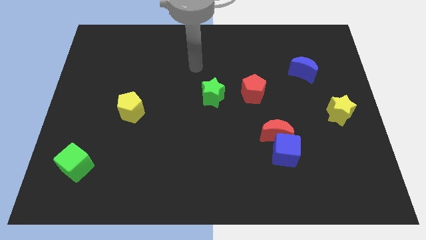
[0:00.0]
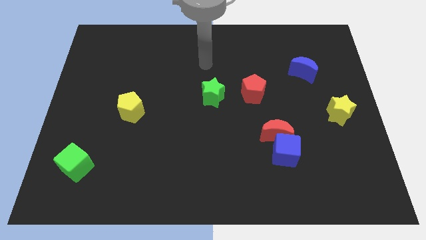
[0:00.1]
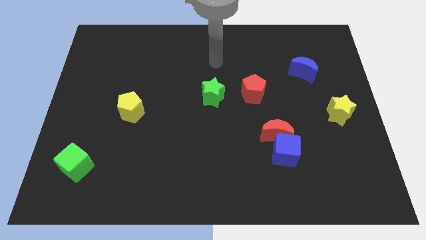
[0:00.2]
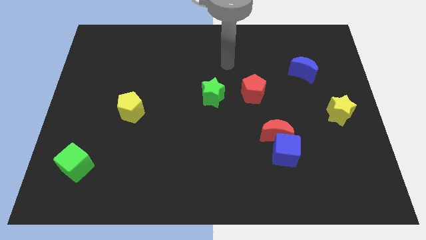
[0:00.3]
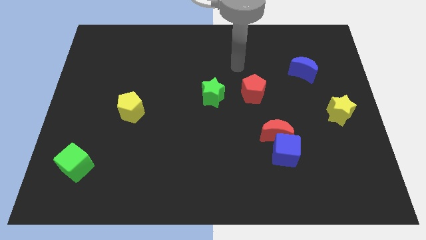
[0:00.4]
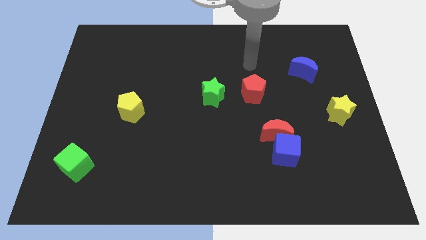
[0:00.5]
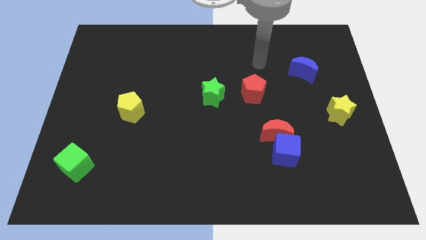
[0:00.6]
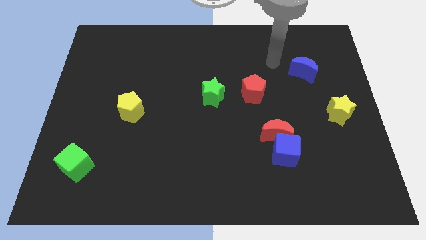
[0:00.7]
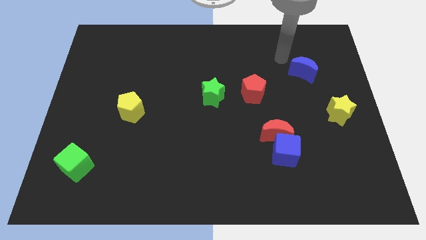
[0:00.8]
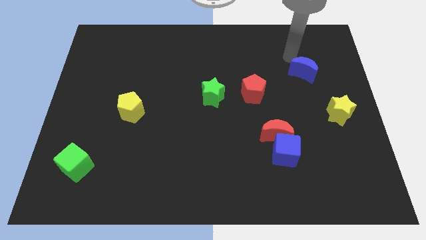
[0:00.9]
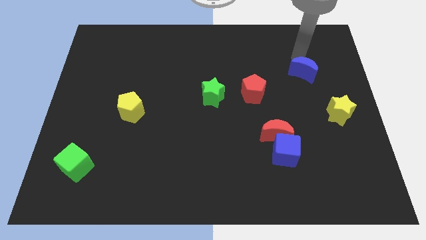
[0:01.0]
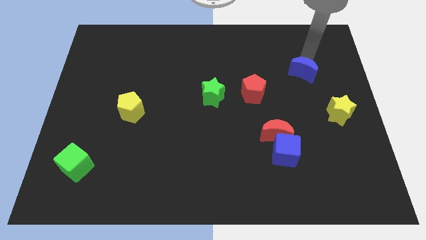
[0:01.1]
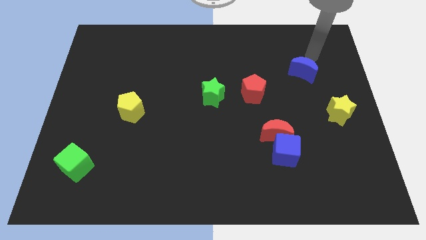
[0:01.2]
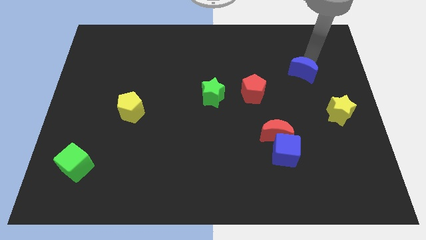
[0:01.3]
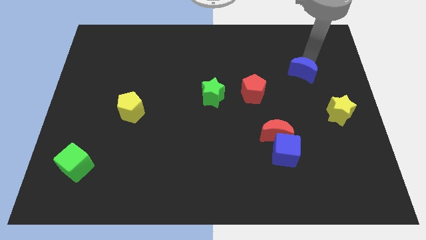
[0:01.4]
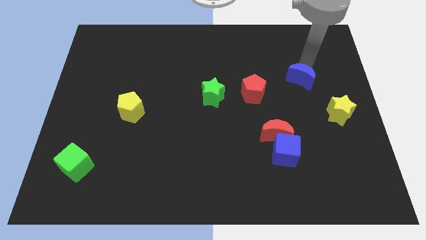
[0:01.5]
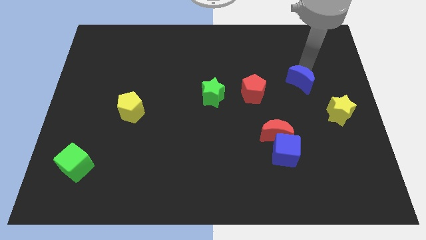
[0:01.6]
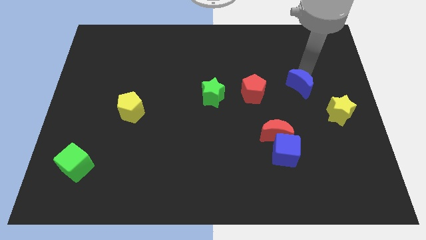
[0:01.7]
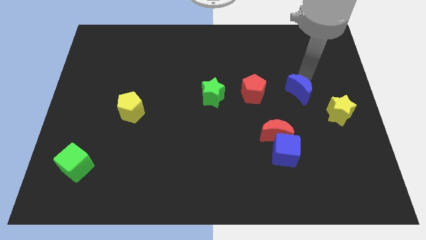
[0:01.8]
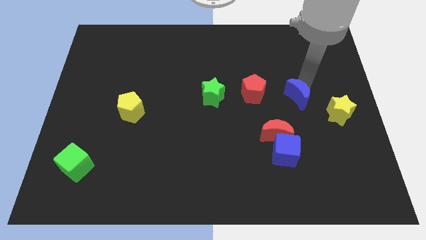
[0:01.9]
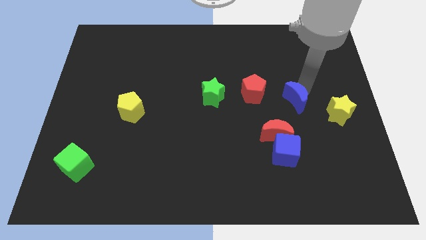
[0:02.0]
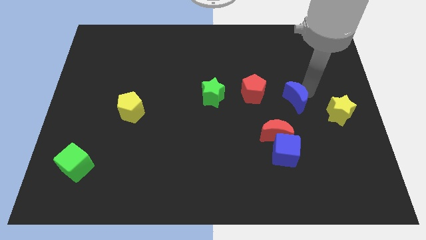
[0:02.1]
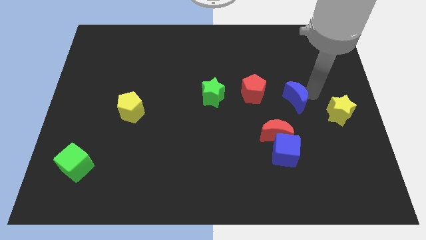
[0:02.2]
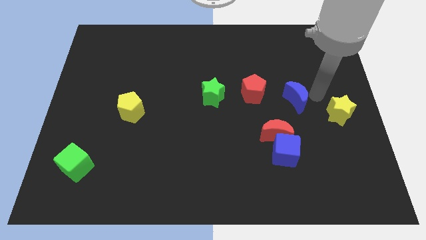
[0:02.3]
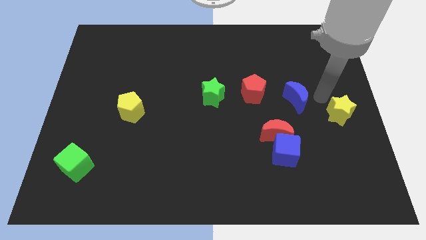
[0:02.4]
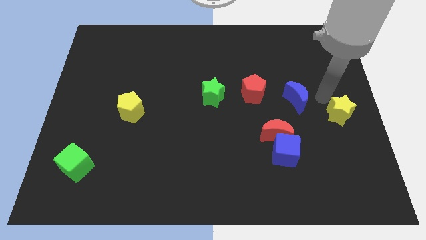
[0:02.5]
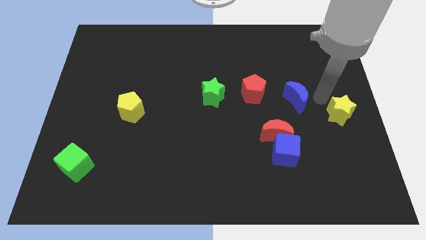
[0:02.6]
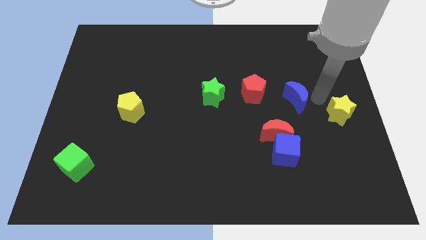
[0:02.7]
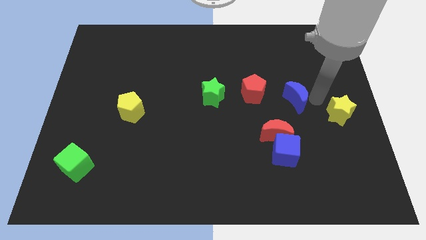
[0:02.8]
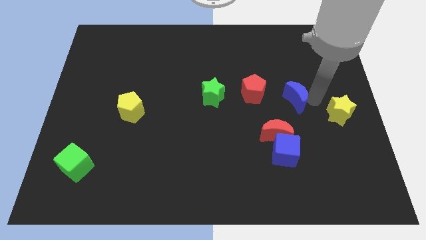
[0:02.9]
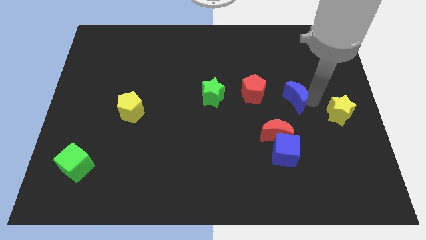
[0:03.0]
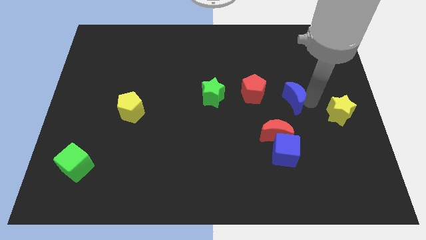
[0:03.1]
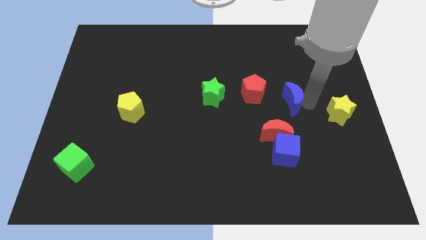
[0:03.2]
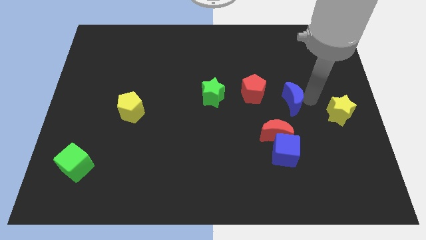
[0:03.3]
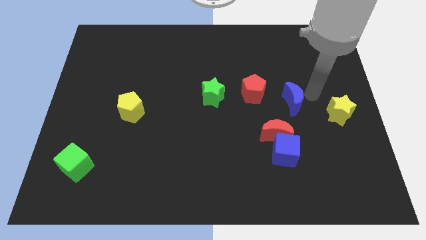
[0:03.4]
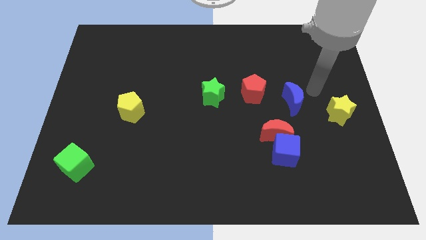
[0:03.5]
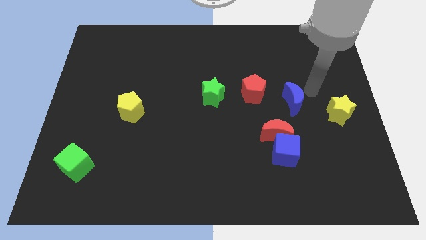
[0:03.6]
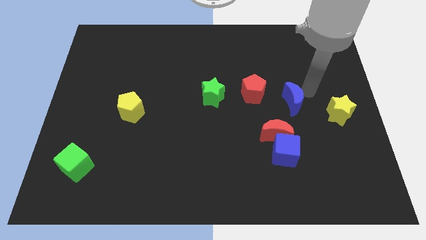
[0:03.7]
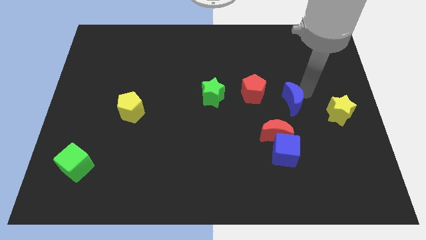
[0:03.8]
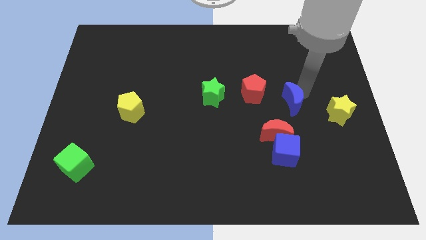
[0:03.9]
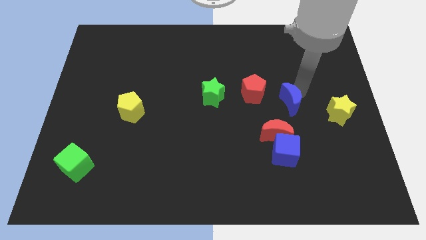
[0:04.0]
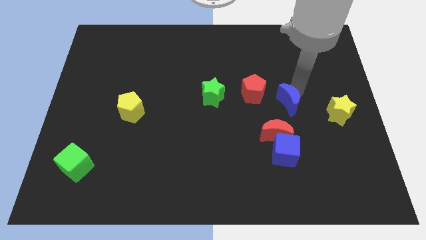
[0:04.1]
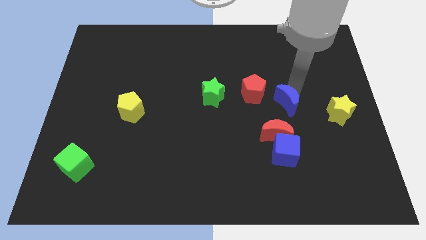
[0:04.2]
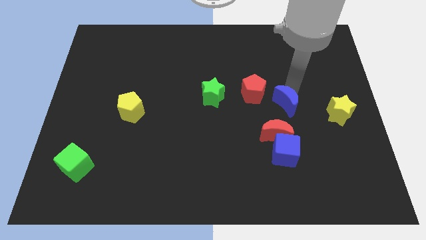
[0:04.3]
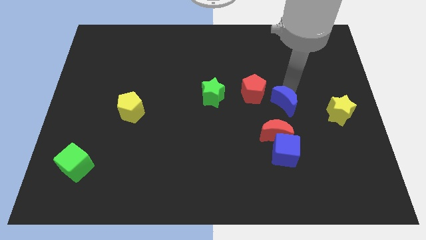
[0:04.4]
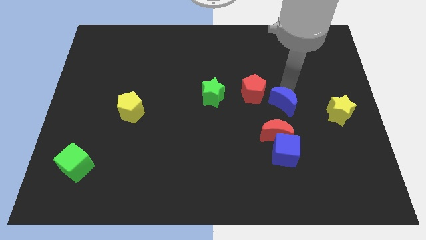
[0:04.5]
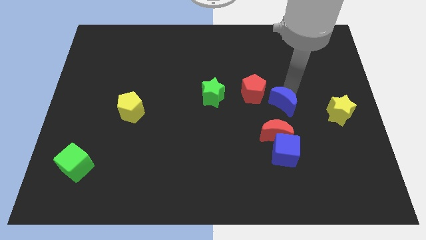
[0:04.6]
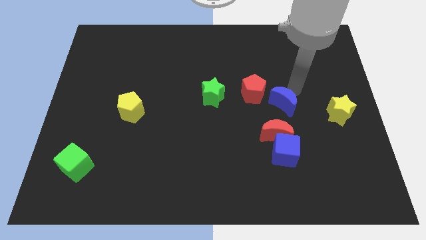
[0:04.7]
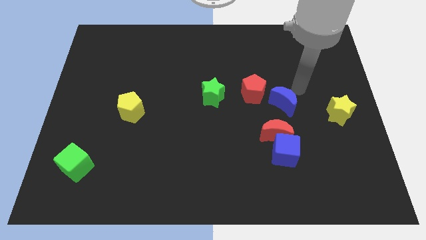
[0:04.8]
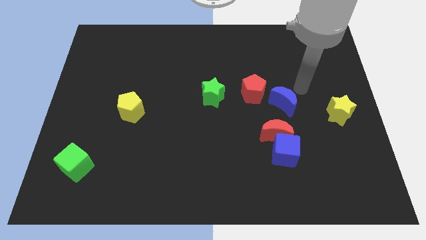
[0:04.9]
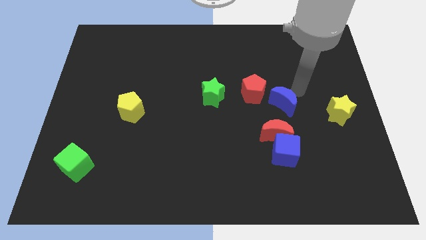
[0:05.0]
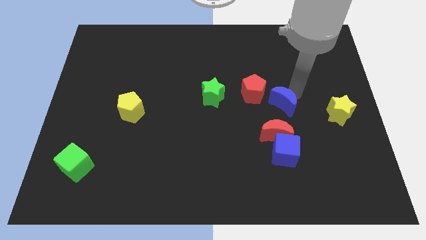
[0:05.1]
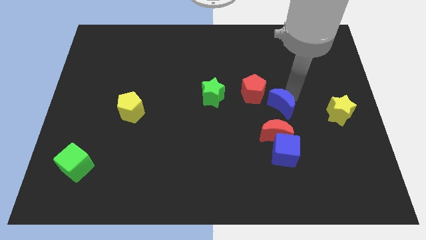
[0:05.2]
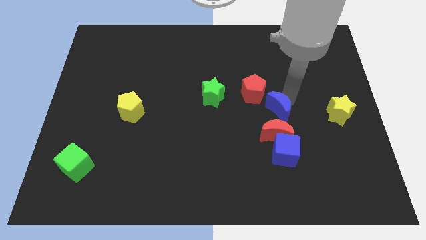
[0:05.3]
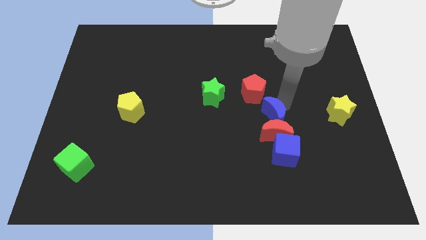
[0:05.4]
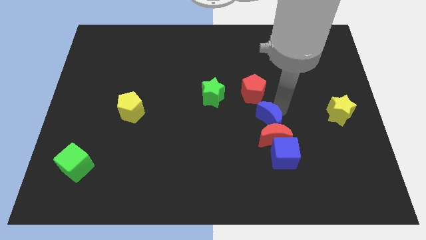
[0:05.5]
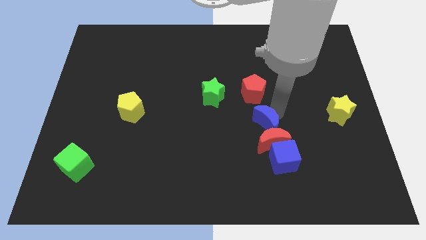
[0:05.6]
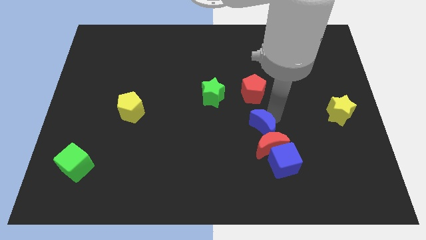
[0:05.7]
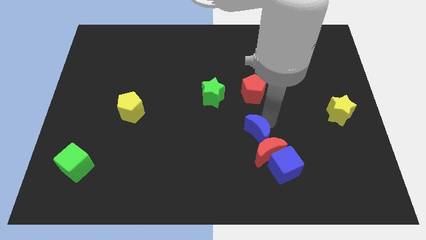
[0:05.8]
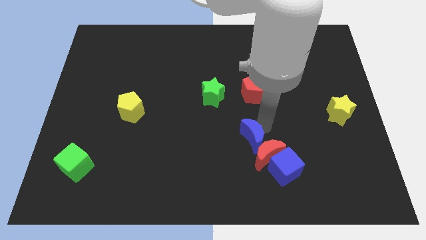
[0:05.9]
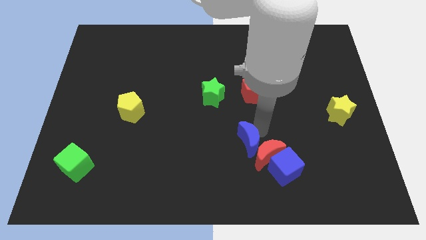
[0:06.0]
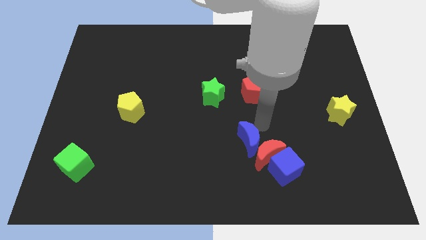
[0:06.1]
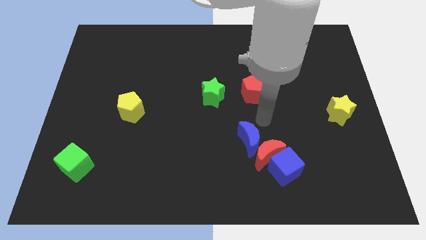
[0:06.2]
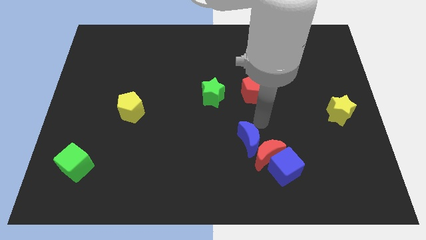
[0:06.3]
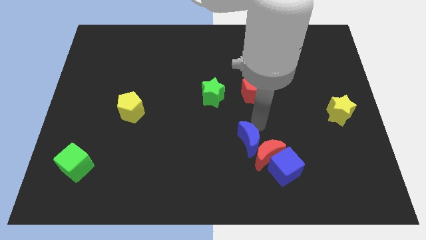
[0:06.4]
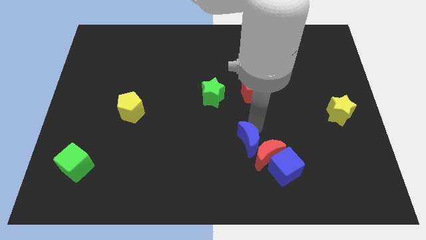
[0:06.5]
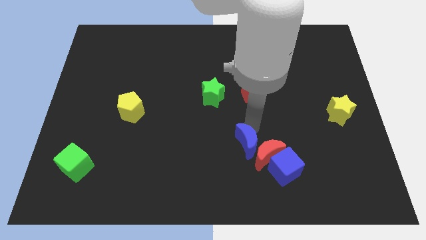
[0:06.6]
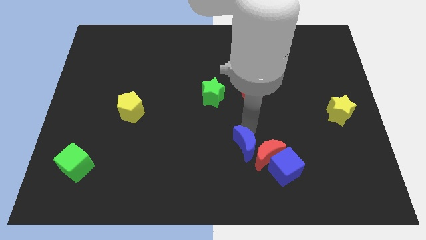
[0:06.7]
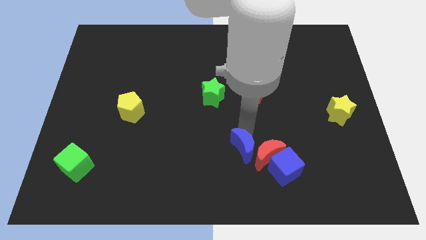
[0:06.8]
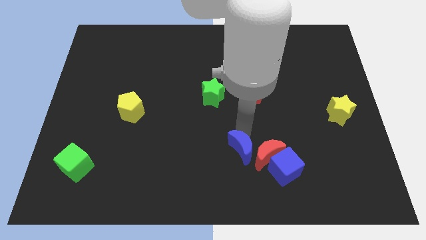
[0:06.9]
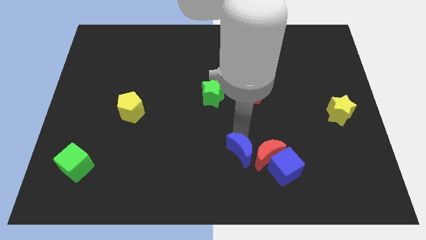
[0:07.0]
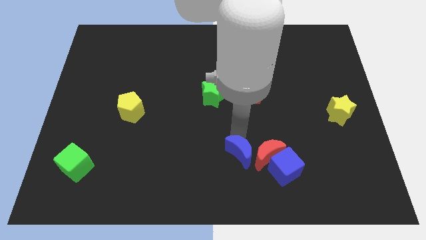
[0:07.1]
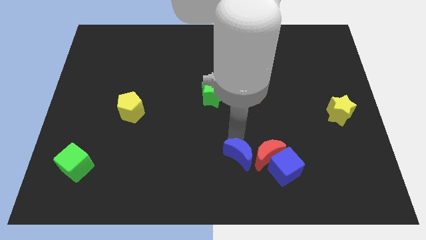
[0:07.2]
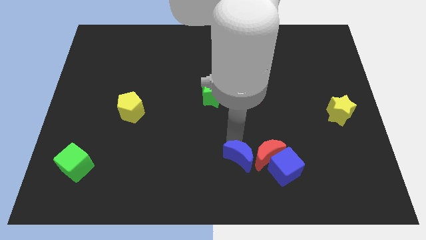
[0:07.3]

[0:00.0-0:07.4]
slide the blue moon to the bottom side
